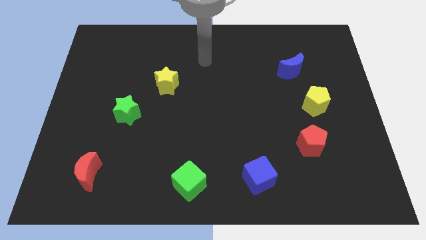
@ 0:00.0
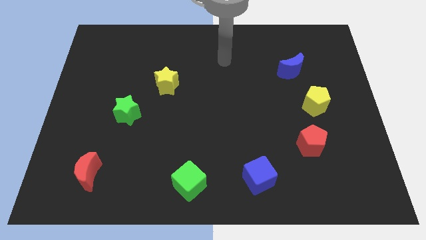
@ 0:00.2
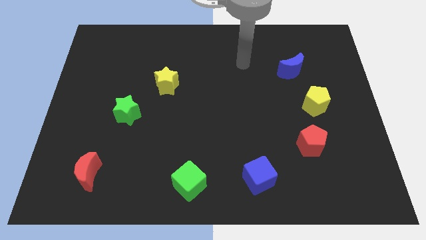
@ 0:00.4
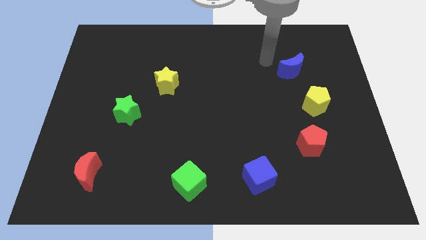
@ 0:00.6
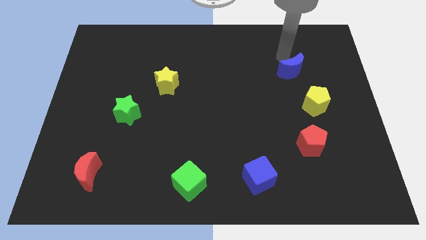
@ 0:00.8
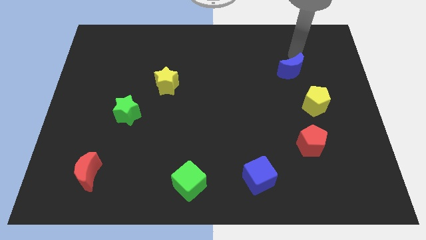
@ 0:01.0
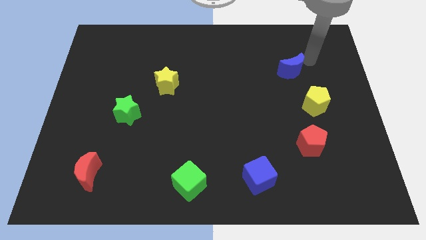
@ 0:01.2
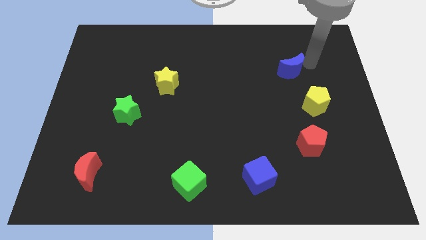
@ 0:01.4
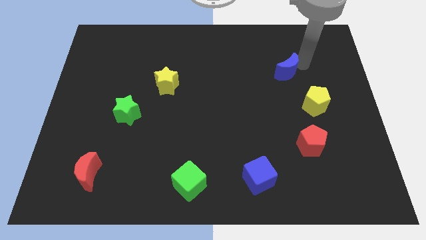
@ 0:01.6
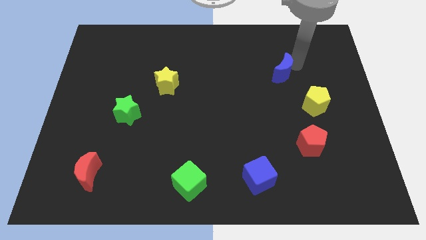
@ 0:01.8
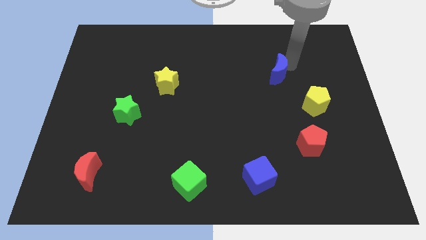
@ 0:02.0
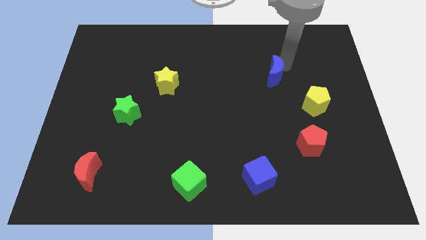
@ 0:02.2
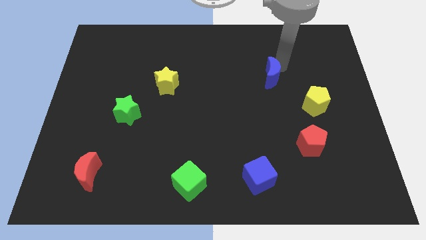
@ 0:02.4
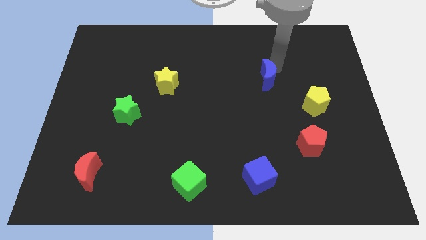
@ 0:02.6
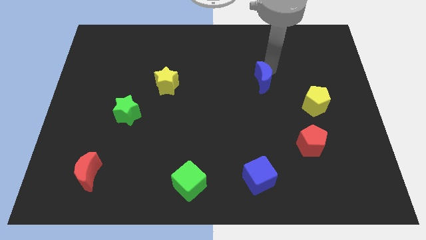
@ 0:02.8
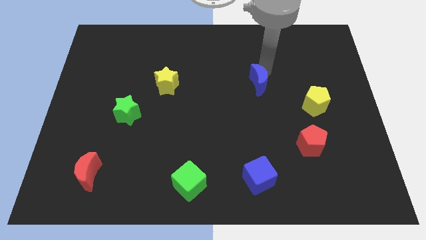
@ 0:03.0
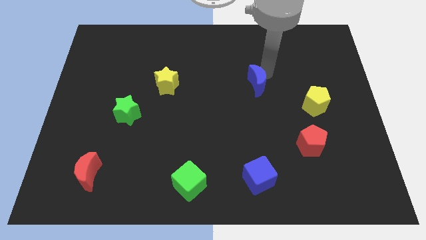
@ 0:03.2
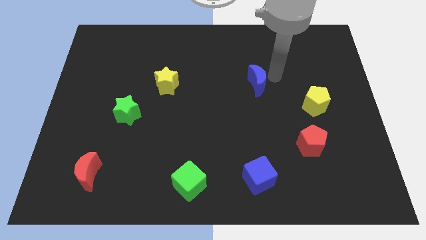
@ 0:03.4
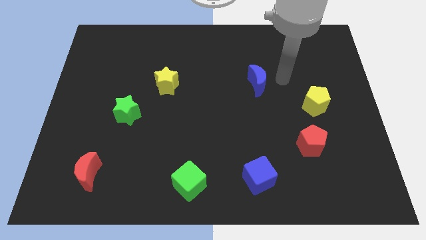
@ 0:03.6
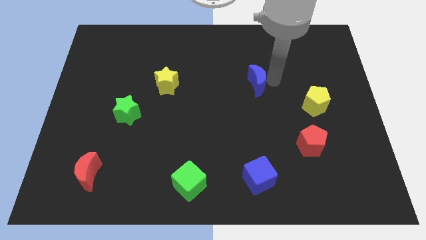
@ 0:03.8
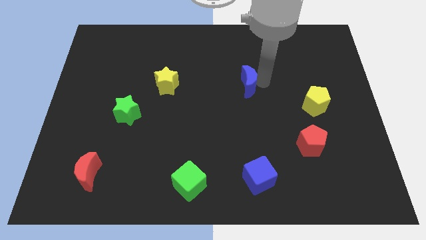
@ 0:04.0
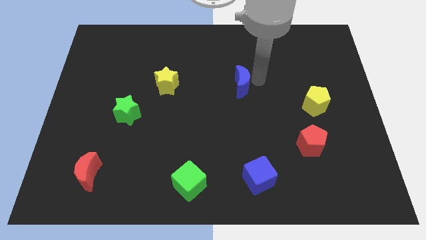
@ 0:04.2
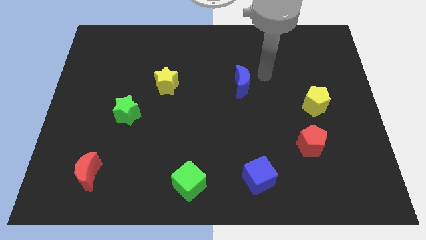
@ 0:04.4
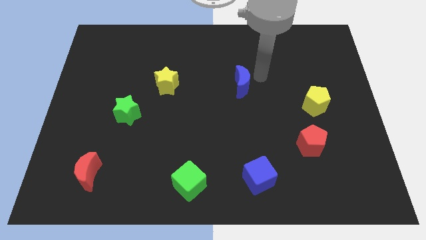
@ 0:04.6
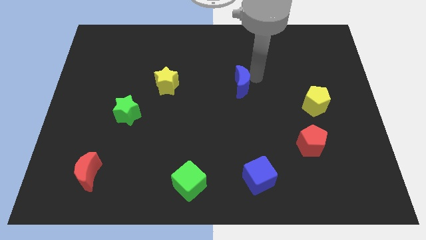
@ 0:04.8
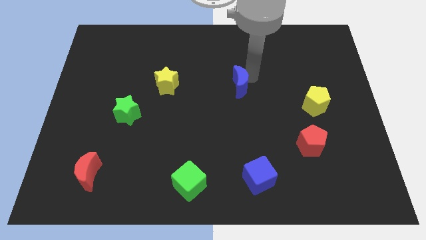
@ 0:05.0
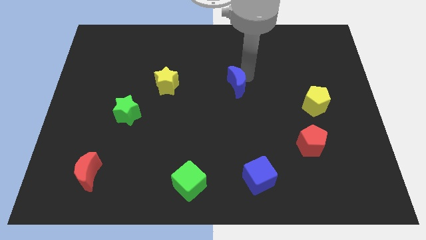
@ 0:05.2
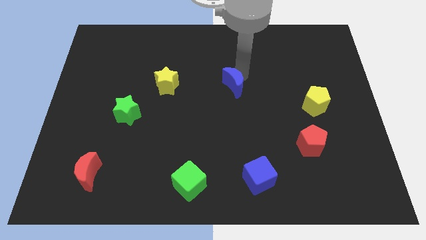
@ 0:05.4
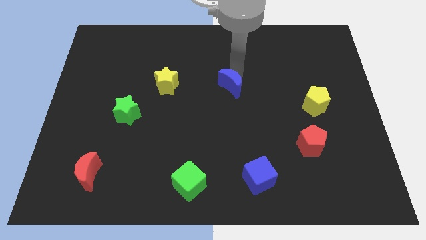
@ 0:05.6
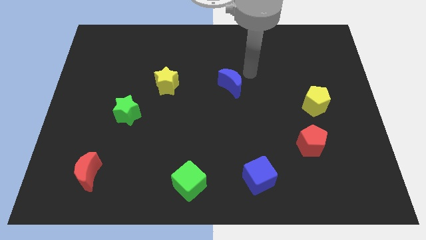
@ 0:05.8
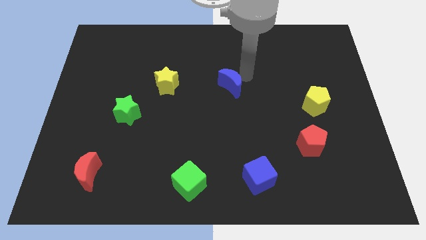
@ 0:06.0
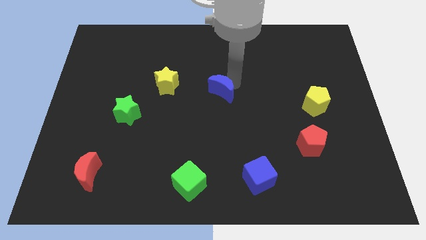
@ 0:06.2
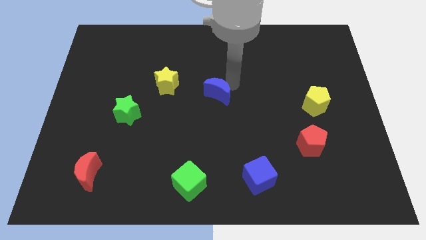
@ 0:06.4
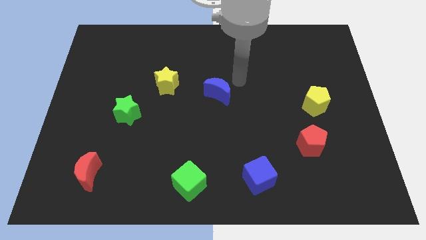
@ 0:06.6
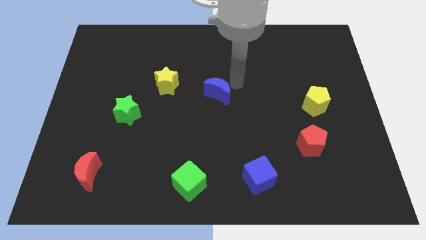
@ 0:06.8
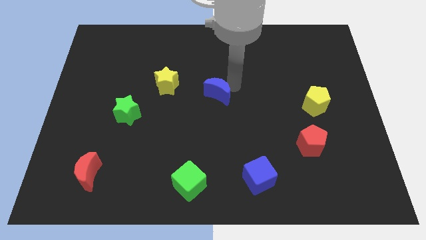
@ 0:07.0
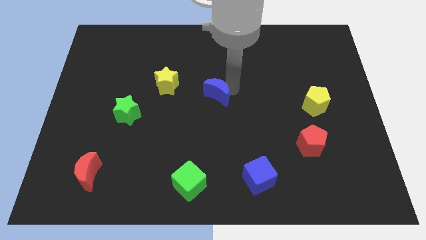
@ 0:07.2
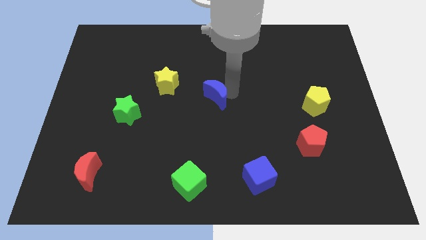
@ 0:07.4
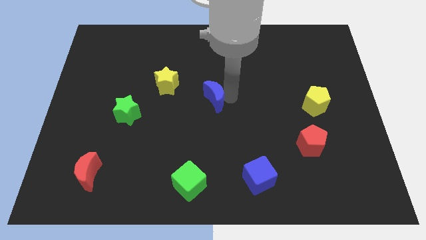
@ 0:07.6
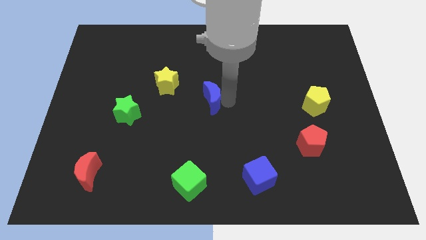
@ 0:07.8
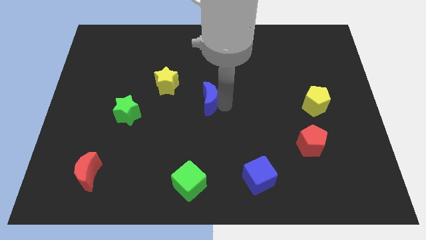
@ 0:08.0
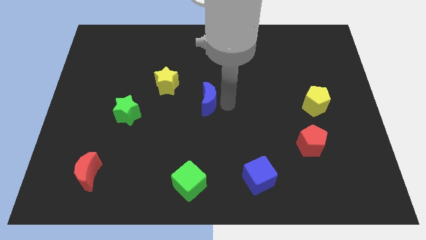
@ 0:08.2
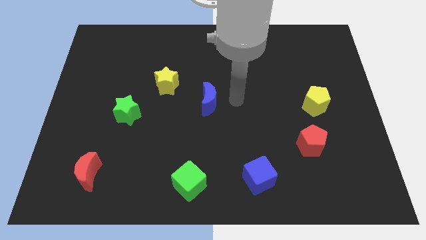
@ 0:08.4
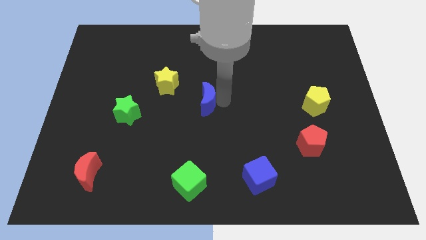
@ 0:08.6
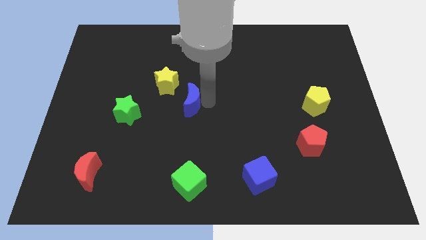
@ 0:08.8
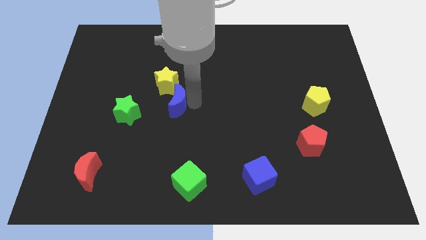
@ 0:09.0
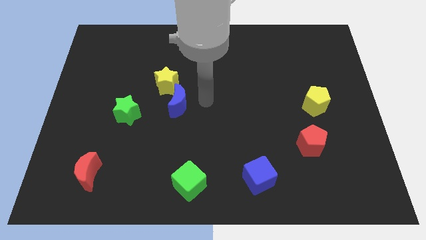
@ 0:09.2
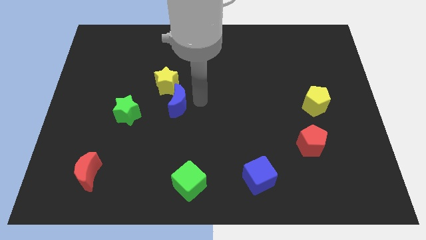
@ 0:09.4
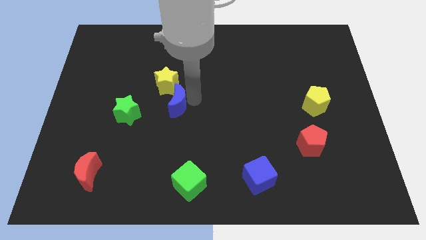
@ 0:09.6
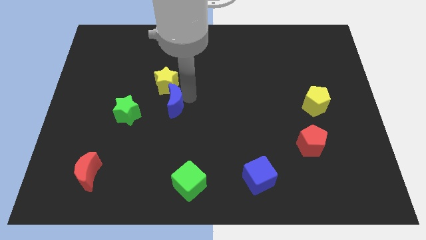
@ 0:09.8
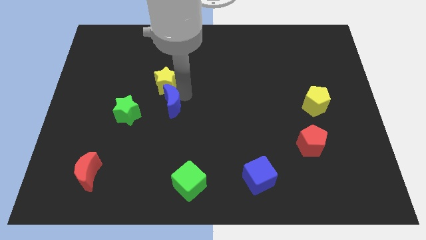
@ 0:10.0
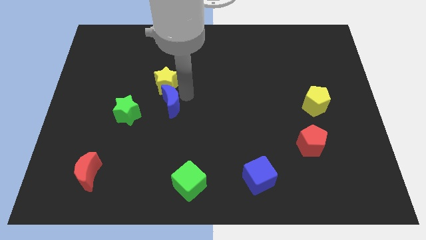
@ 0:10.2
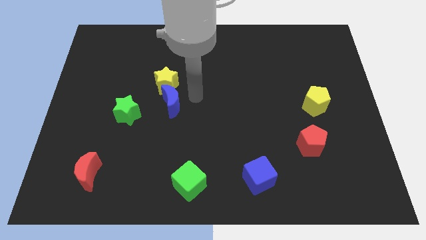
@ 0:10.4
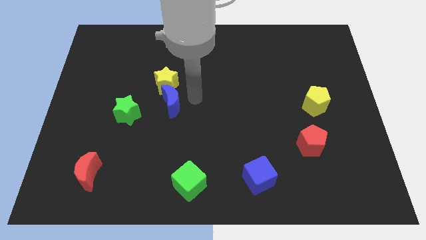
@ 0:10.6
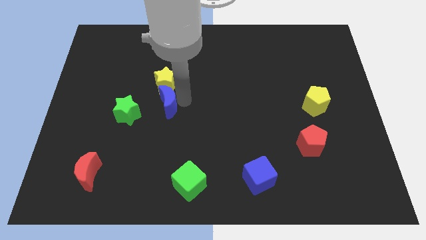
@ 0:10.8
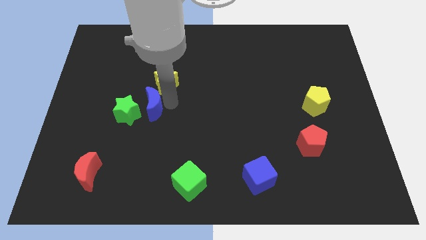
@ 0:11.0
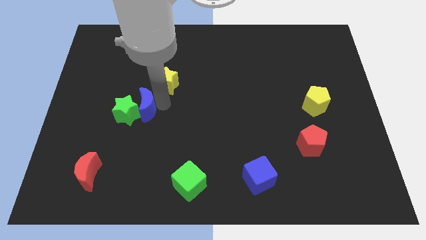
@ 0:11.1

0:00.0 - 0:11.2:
move the blue moon close to the green star

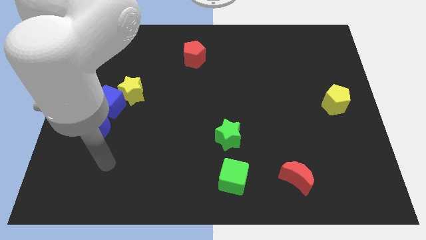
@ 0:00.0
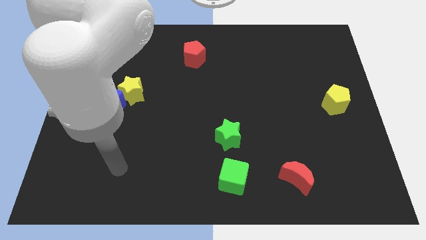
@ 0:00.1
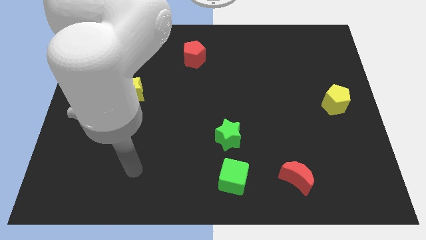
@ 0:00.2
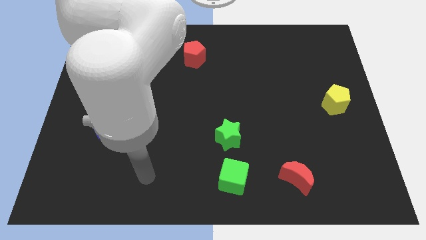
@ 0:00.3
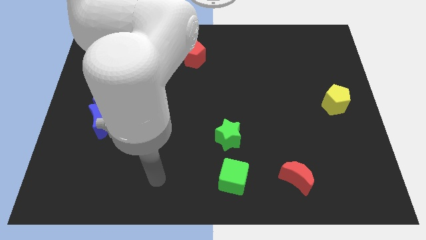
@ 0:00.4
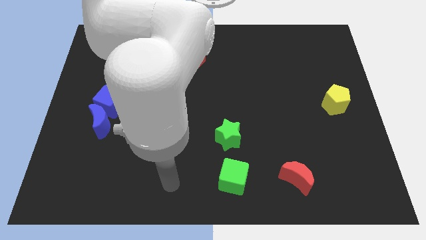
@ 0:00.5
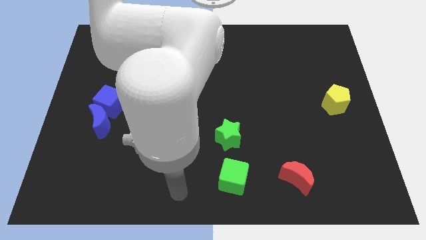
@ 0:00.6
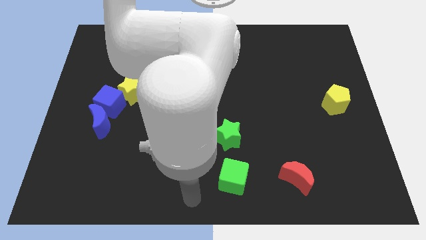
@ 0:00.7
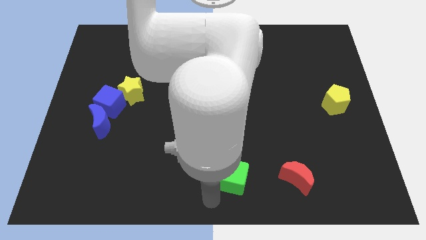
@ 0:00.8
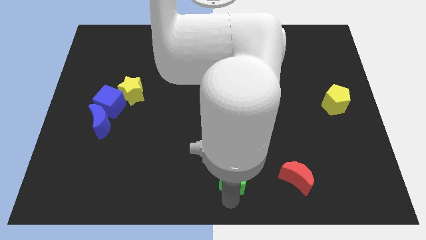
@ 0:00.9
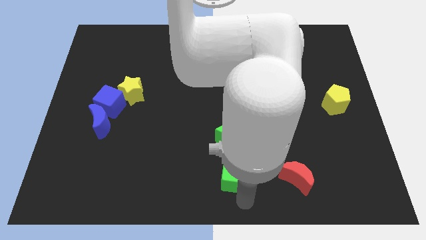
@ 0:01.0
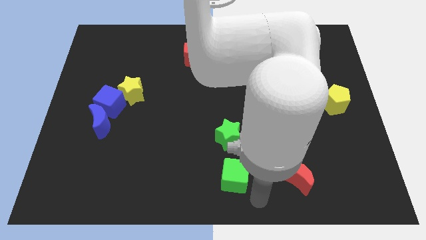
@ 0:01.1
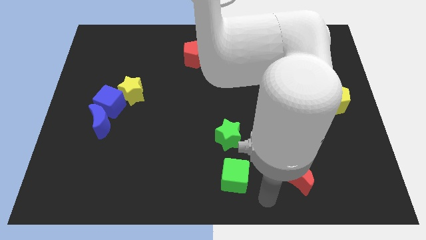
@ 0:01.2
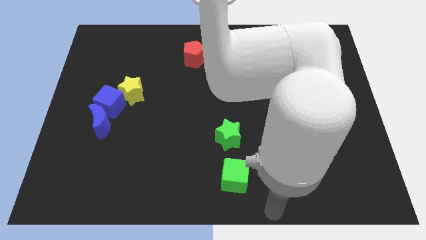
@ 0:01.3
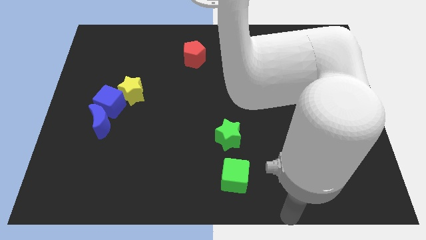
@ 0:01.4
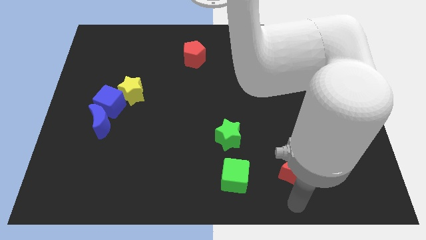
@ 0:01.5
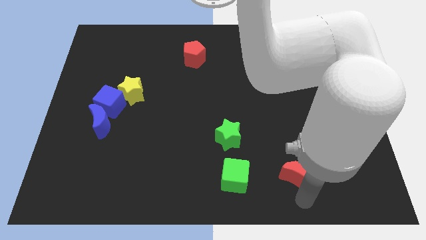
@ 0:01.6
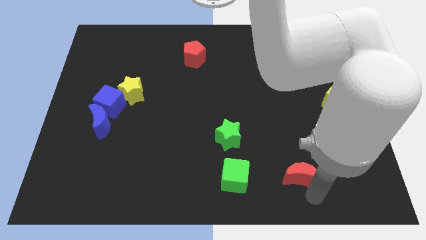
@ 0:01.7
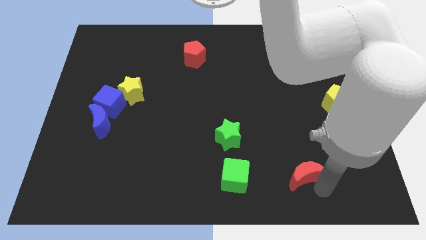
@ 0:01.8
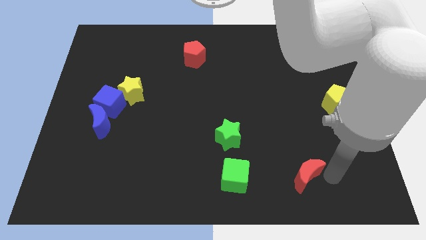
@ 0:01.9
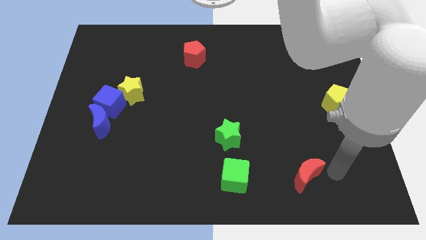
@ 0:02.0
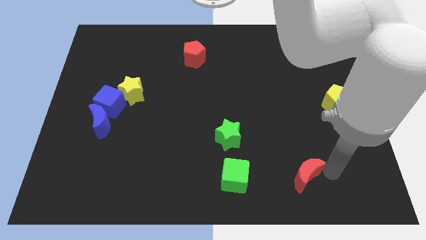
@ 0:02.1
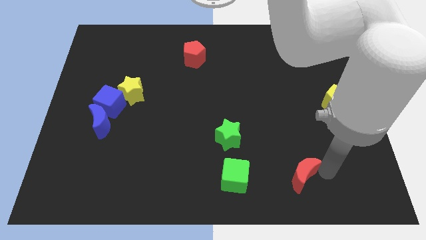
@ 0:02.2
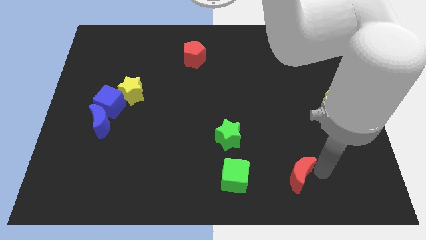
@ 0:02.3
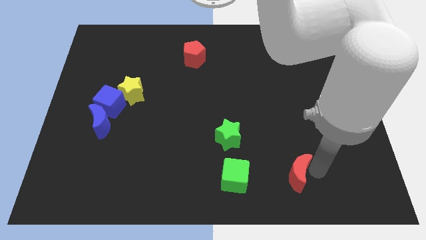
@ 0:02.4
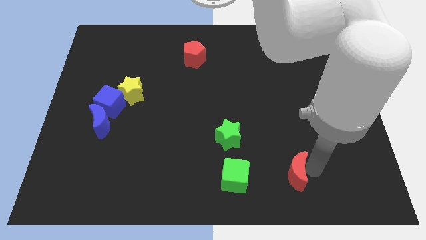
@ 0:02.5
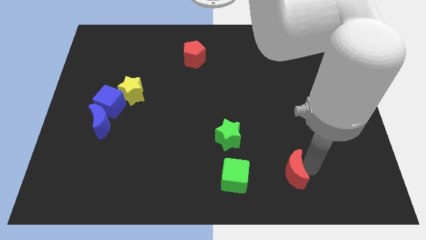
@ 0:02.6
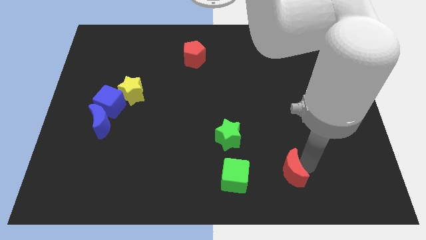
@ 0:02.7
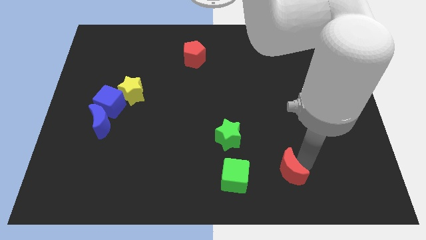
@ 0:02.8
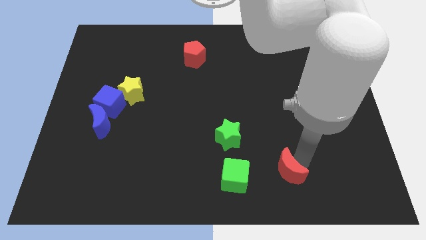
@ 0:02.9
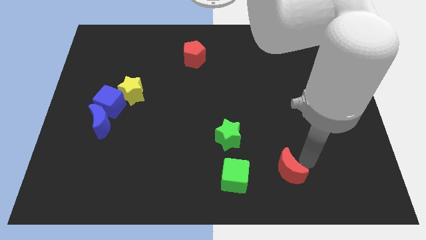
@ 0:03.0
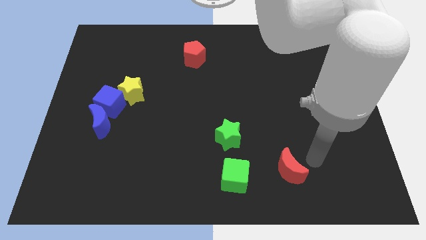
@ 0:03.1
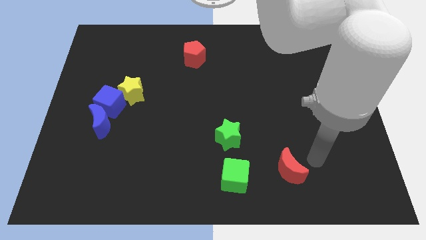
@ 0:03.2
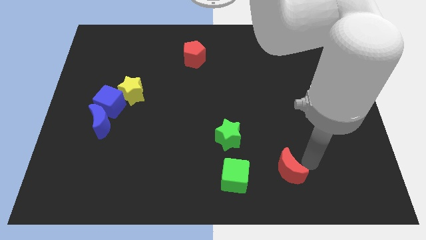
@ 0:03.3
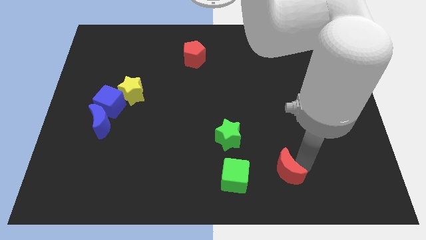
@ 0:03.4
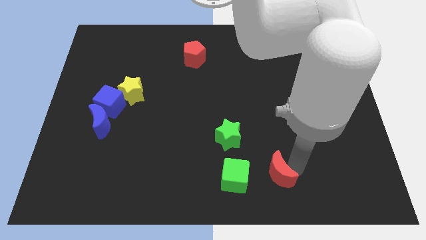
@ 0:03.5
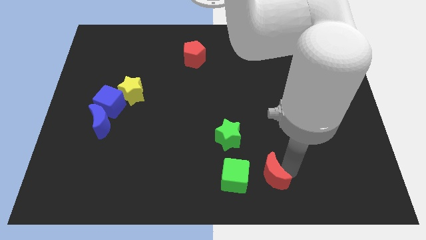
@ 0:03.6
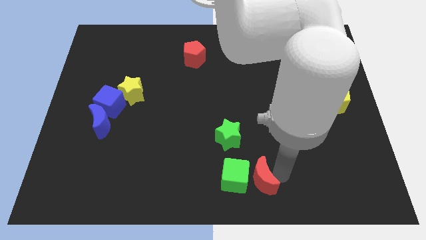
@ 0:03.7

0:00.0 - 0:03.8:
push the red moon towards the green cube
